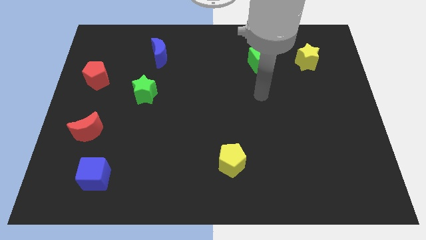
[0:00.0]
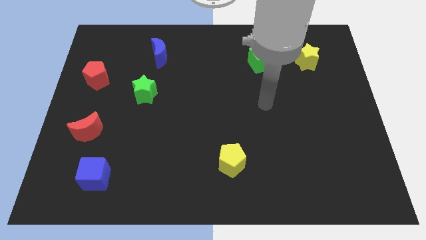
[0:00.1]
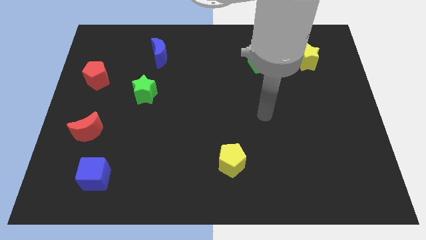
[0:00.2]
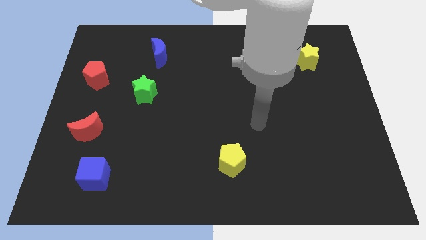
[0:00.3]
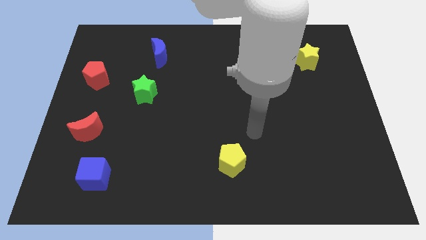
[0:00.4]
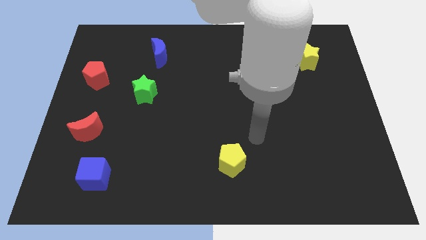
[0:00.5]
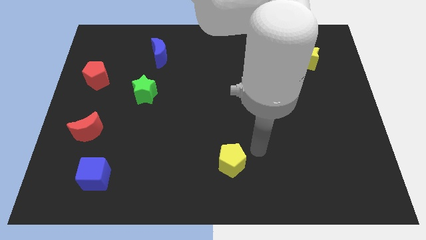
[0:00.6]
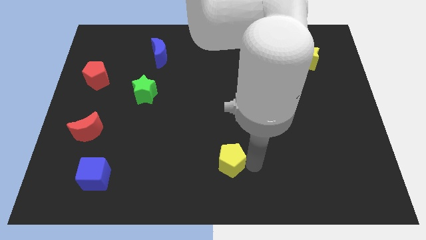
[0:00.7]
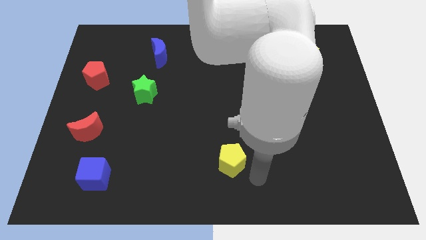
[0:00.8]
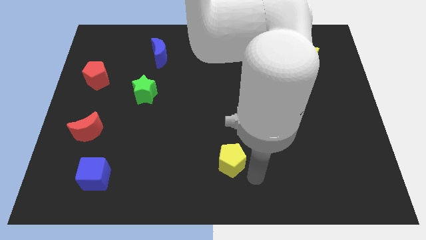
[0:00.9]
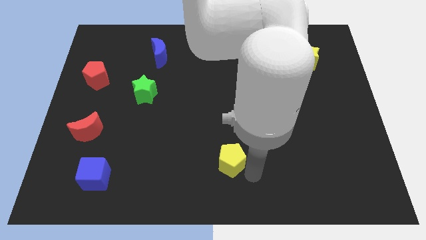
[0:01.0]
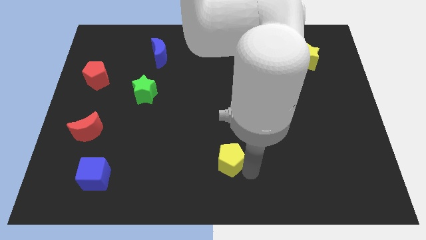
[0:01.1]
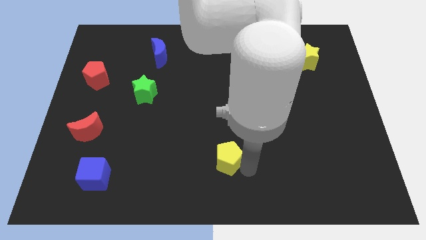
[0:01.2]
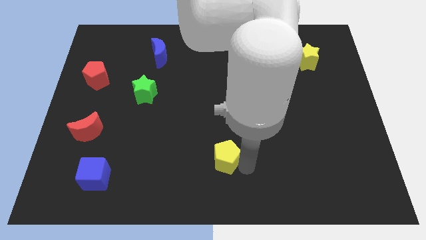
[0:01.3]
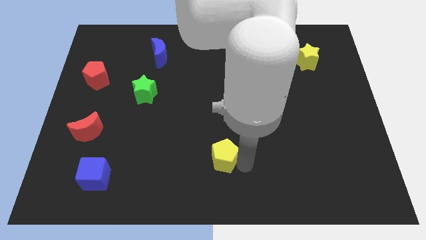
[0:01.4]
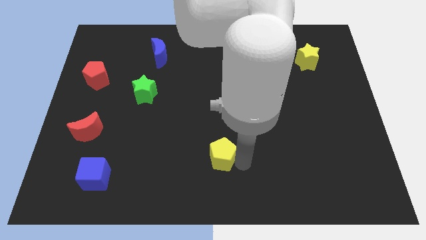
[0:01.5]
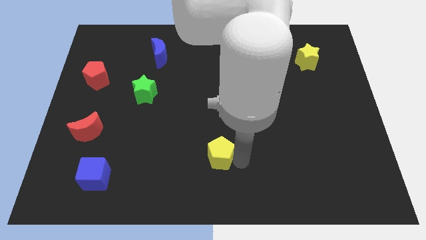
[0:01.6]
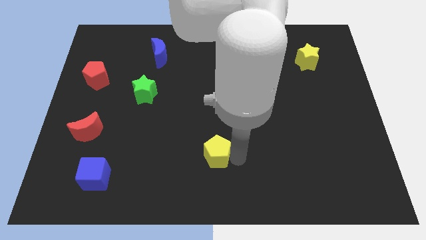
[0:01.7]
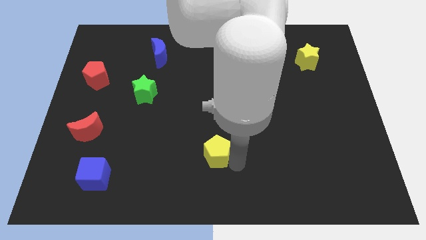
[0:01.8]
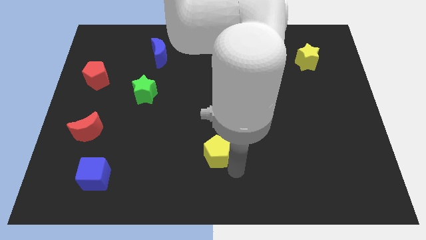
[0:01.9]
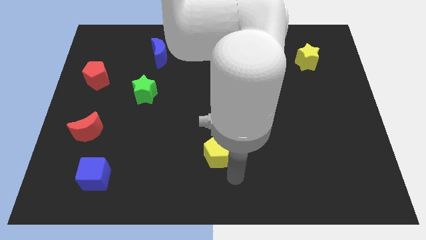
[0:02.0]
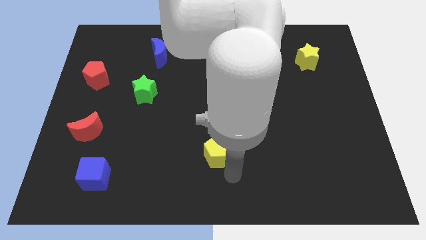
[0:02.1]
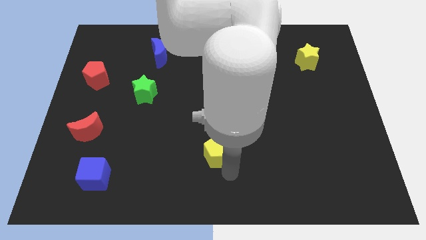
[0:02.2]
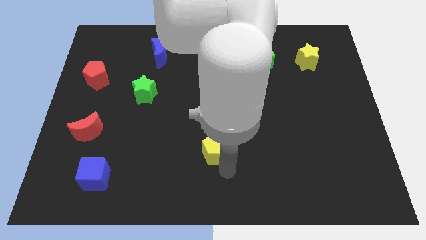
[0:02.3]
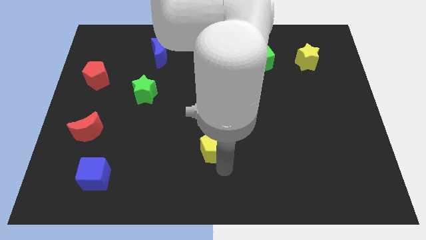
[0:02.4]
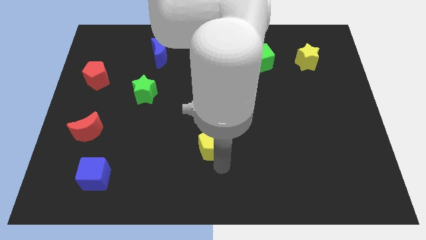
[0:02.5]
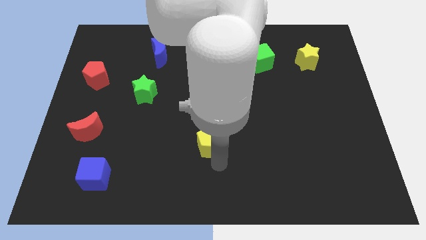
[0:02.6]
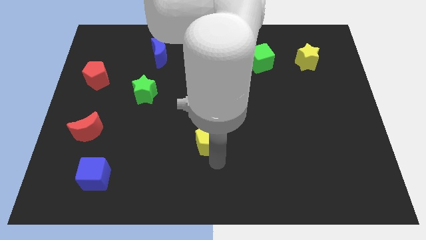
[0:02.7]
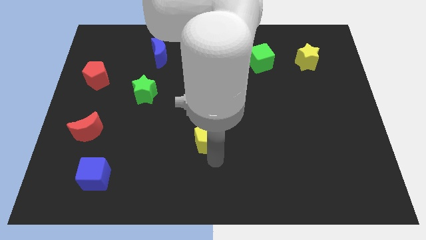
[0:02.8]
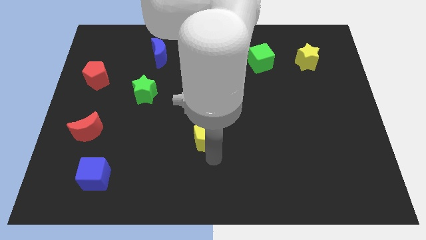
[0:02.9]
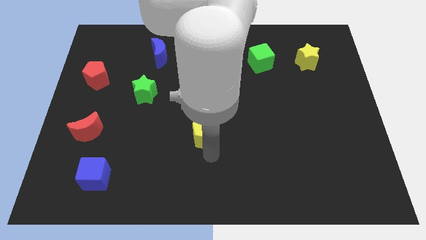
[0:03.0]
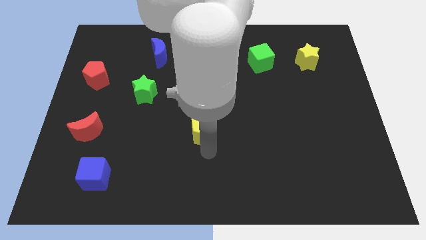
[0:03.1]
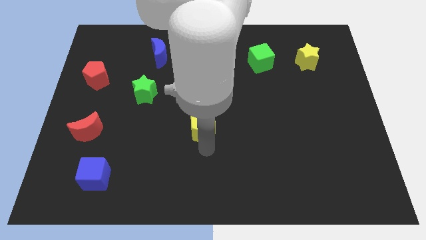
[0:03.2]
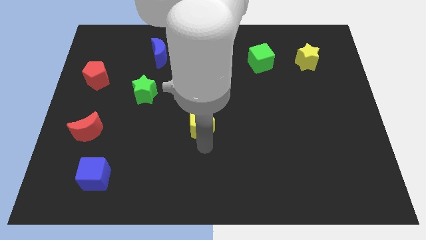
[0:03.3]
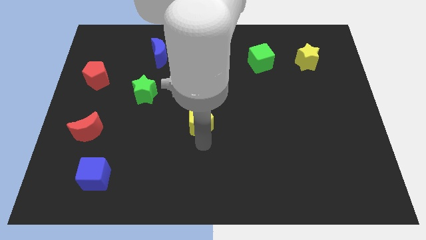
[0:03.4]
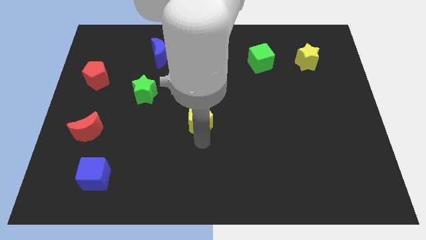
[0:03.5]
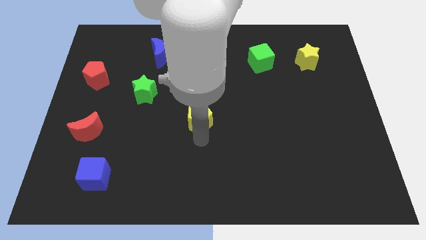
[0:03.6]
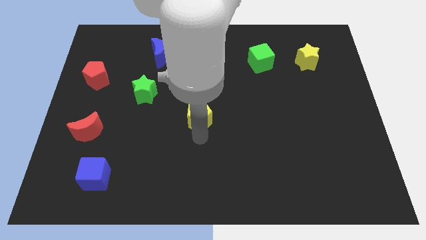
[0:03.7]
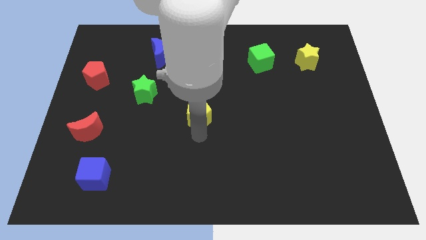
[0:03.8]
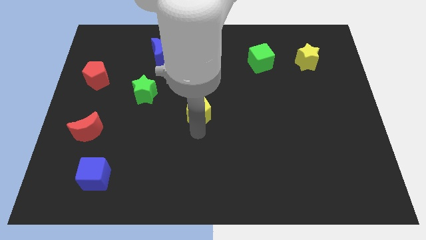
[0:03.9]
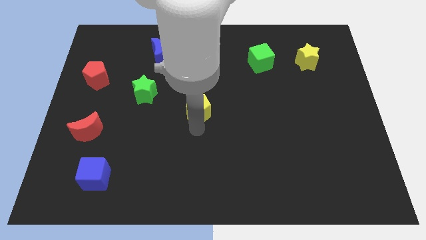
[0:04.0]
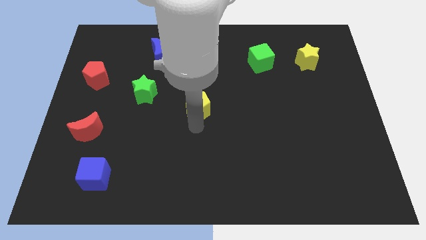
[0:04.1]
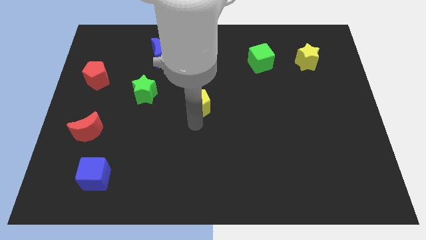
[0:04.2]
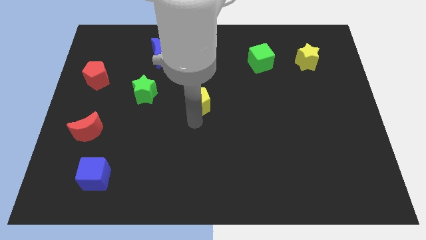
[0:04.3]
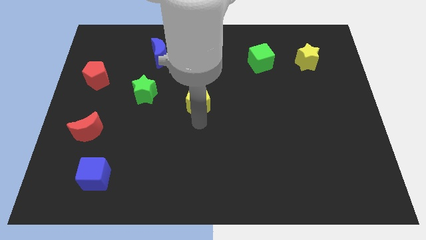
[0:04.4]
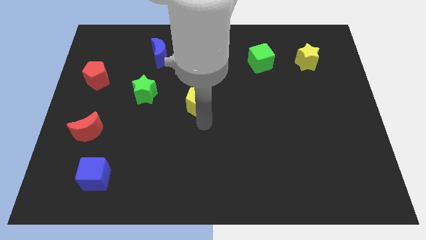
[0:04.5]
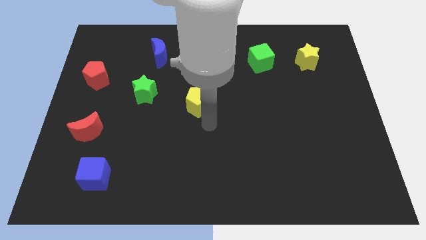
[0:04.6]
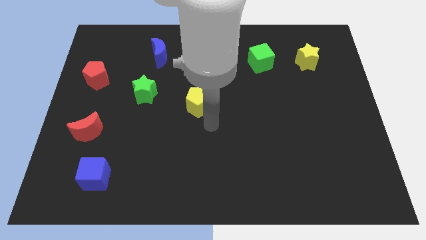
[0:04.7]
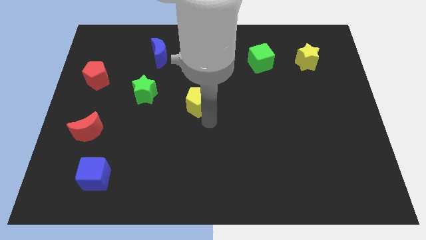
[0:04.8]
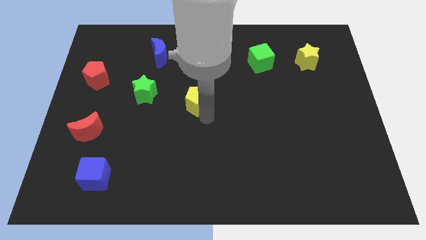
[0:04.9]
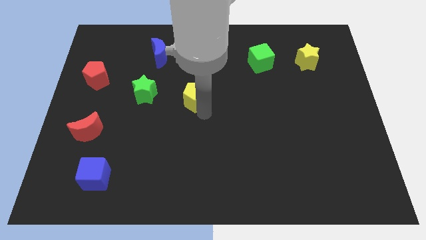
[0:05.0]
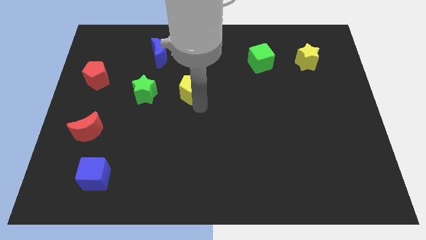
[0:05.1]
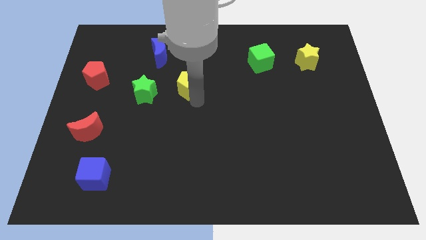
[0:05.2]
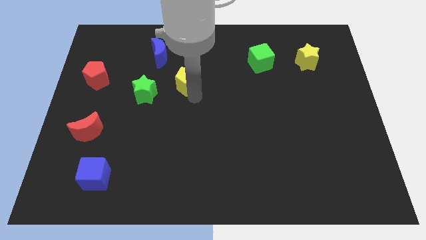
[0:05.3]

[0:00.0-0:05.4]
put the yellow pentagon to the bottom right of the blue moon

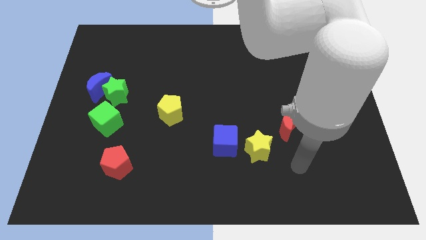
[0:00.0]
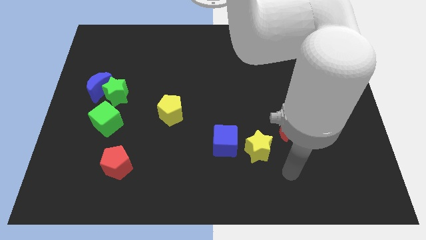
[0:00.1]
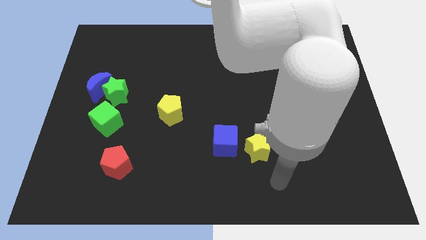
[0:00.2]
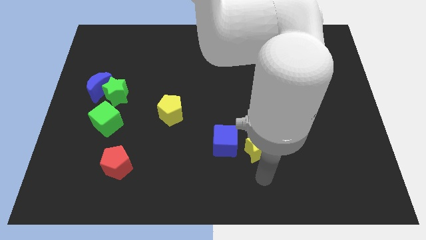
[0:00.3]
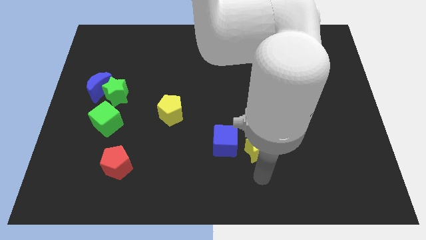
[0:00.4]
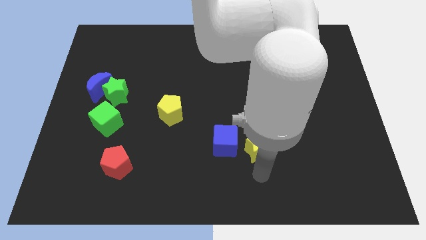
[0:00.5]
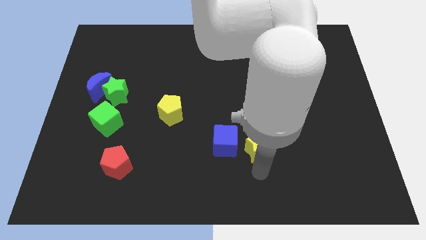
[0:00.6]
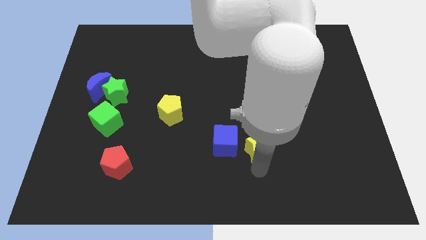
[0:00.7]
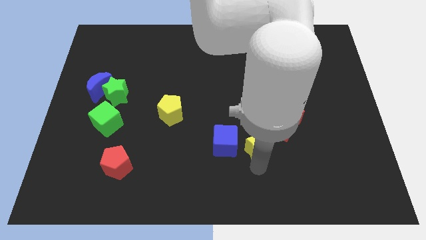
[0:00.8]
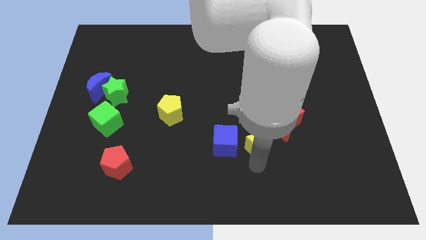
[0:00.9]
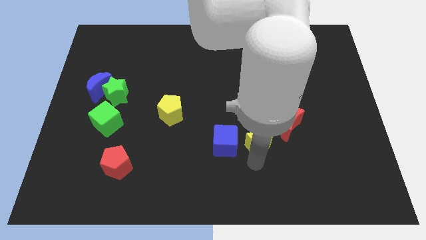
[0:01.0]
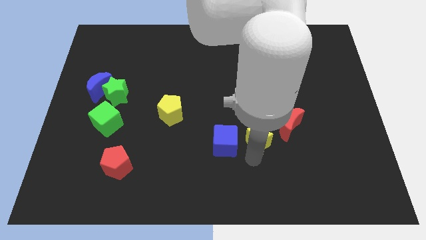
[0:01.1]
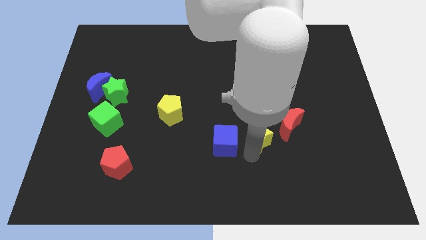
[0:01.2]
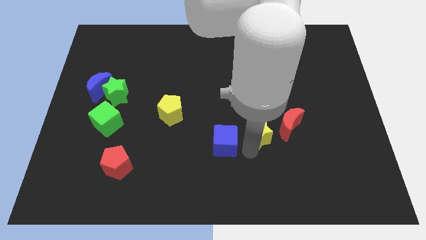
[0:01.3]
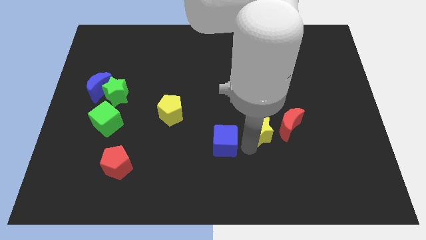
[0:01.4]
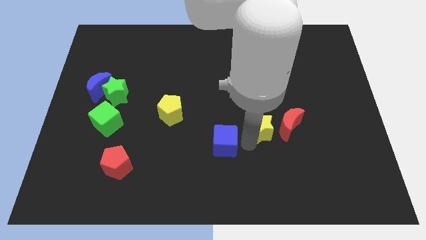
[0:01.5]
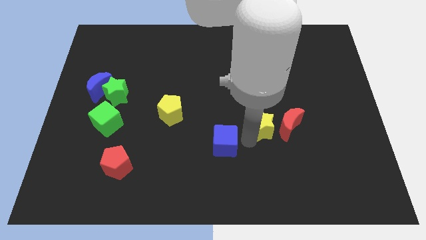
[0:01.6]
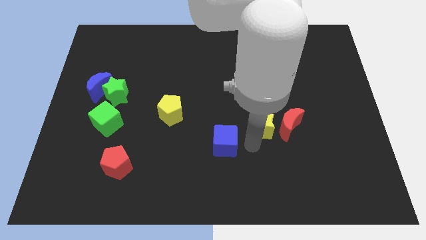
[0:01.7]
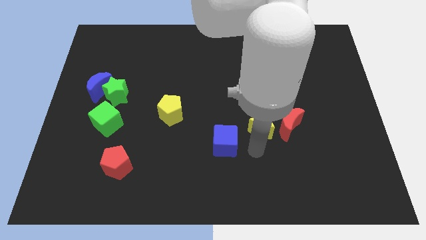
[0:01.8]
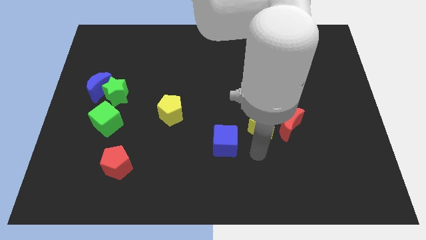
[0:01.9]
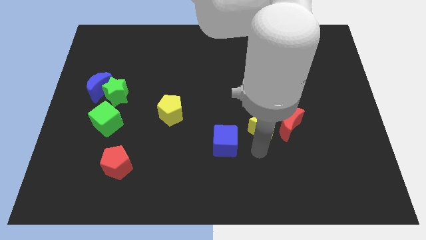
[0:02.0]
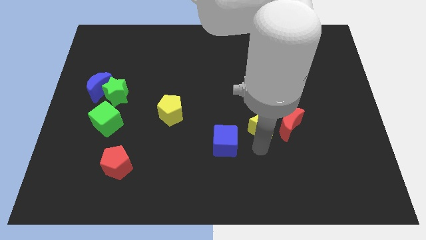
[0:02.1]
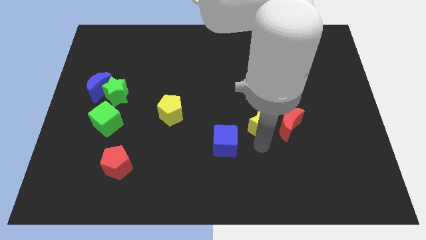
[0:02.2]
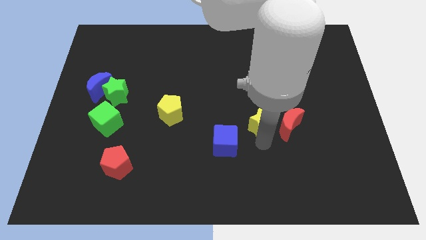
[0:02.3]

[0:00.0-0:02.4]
slide the yellow star to the top left side of the red moon
